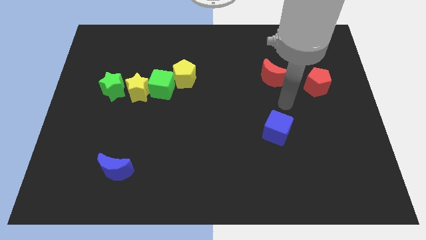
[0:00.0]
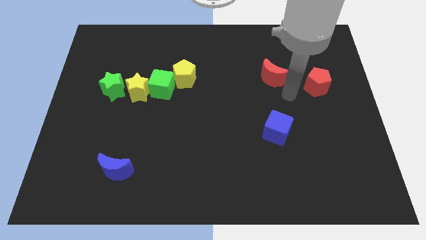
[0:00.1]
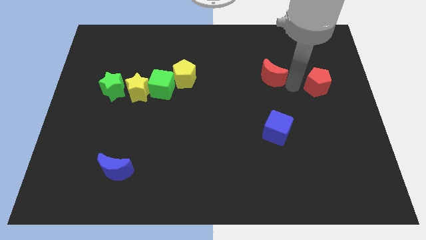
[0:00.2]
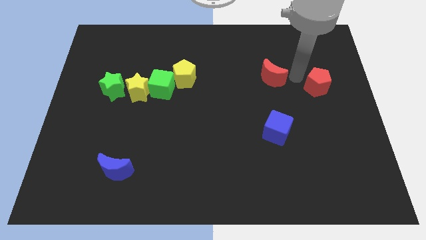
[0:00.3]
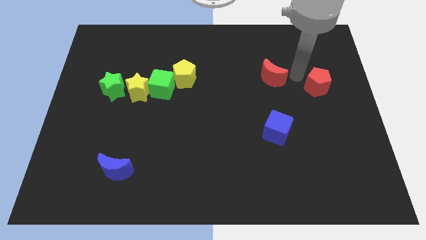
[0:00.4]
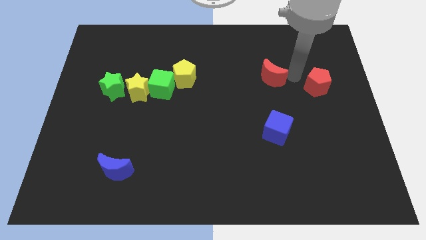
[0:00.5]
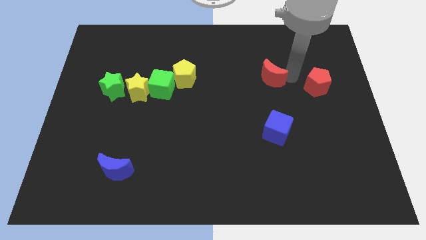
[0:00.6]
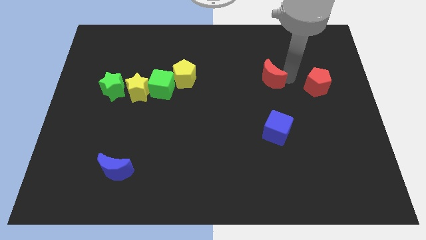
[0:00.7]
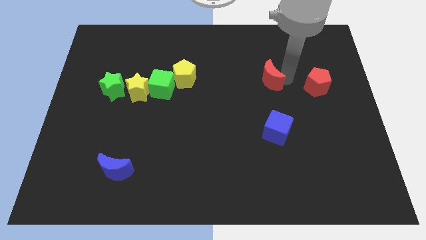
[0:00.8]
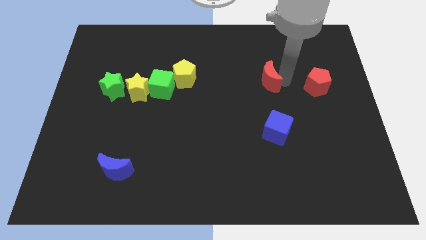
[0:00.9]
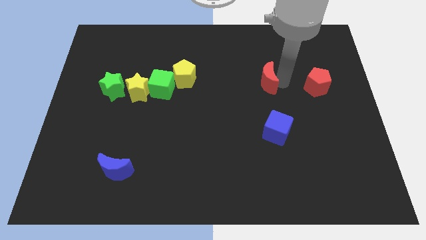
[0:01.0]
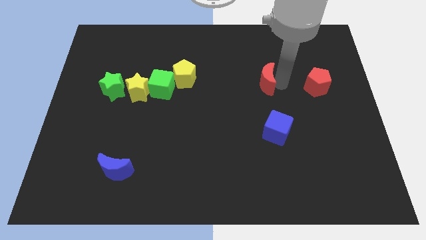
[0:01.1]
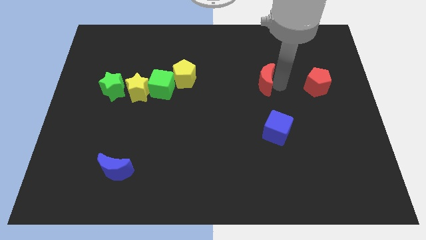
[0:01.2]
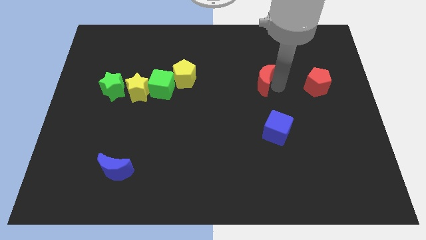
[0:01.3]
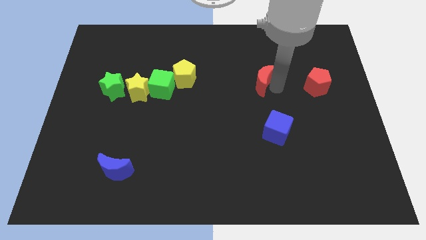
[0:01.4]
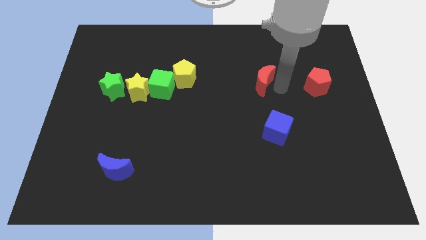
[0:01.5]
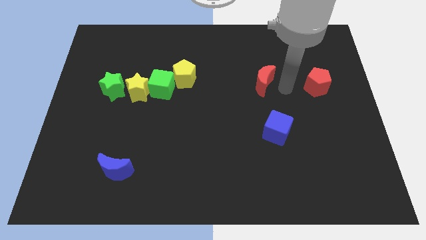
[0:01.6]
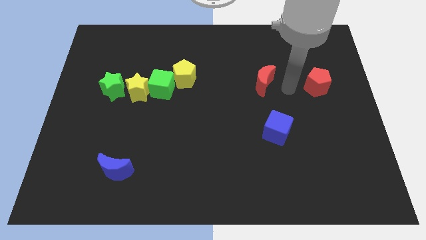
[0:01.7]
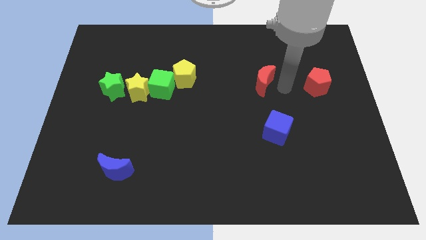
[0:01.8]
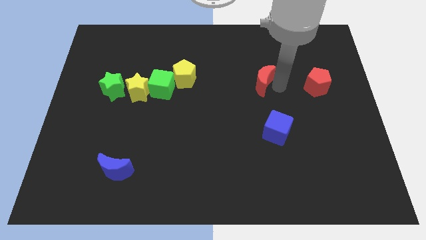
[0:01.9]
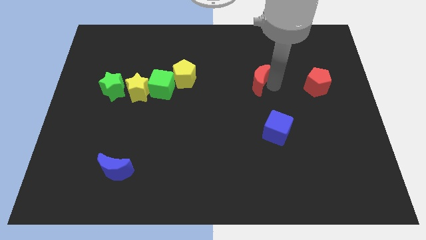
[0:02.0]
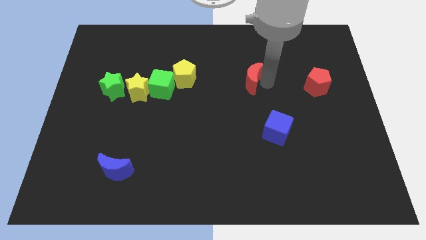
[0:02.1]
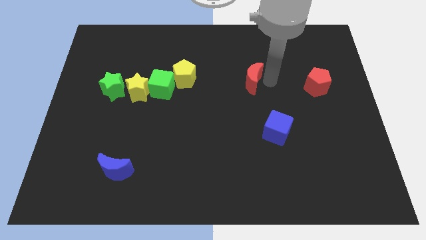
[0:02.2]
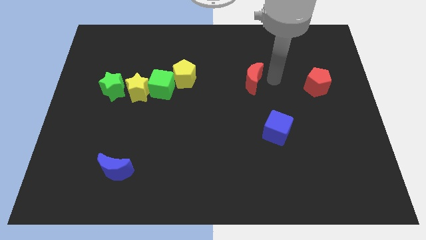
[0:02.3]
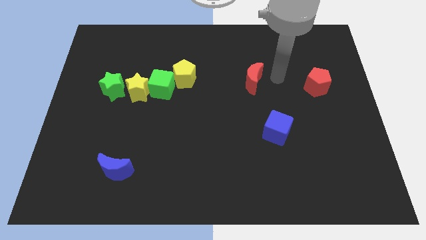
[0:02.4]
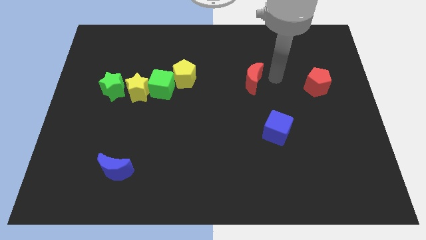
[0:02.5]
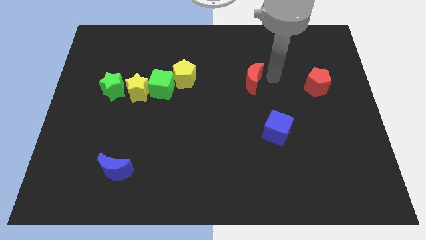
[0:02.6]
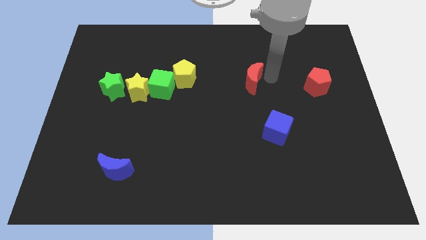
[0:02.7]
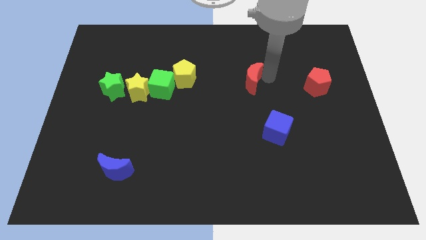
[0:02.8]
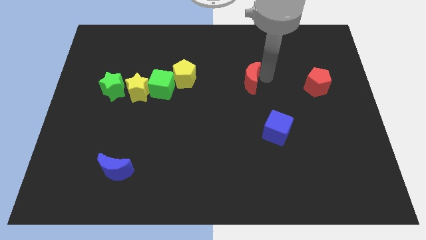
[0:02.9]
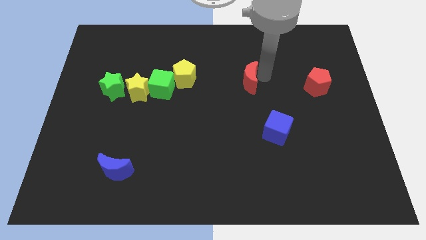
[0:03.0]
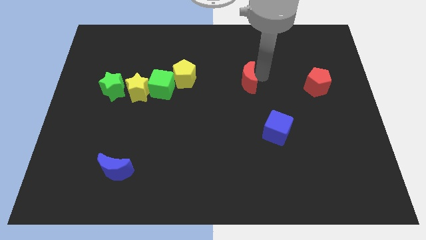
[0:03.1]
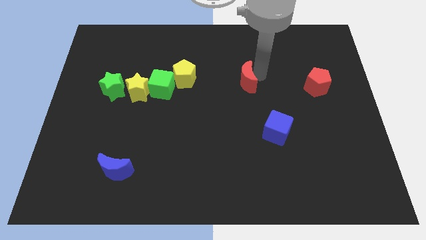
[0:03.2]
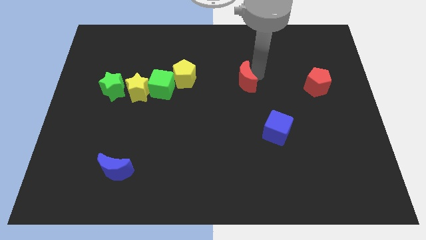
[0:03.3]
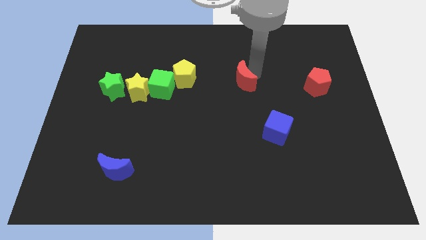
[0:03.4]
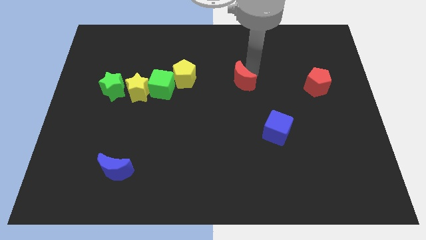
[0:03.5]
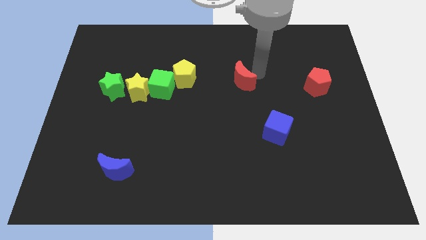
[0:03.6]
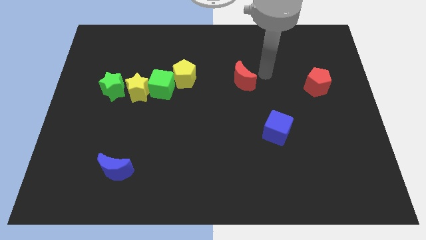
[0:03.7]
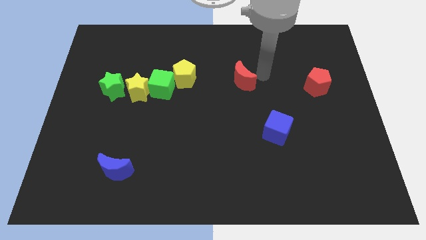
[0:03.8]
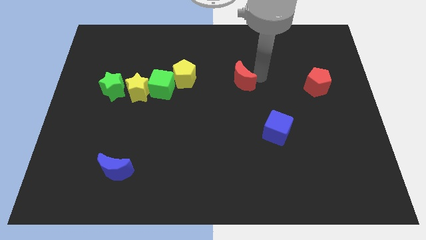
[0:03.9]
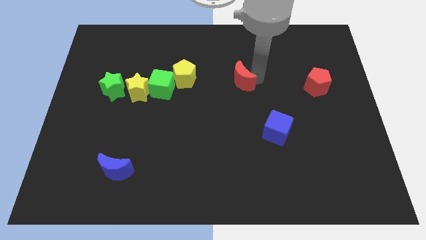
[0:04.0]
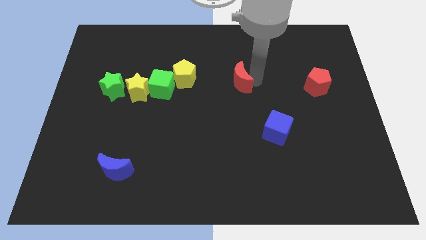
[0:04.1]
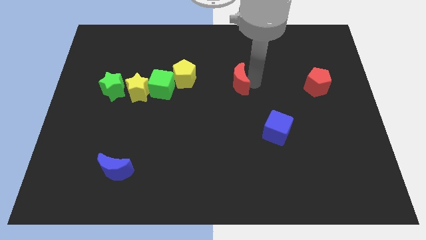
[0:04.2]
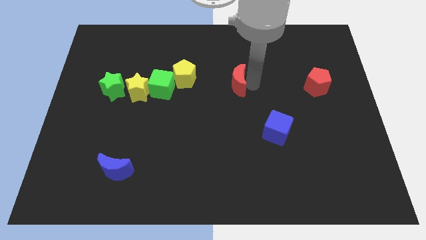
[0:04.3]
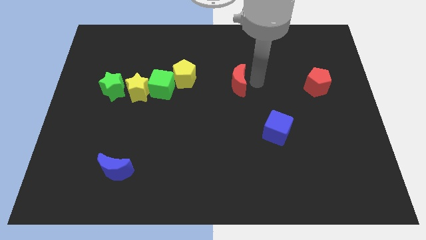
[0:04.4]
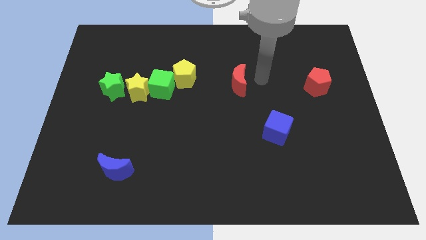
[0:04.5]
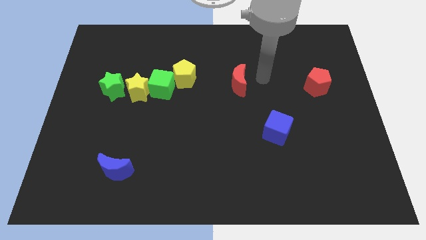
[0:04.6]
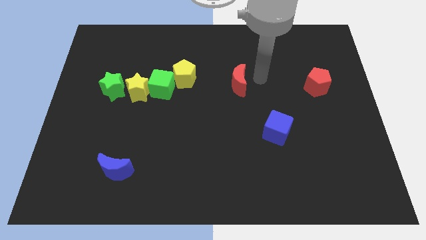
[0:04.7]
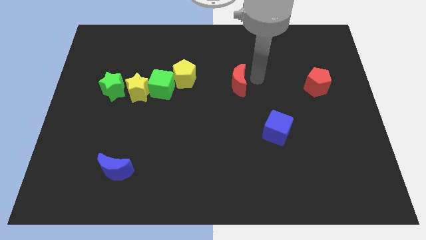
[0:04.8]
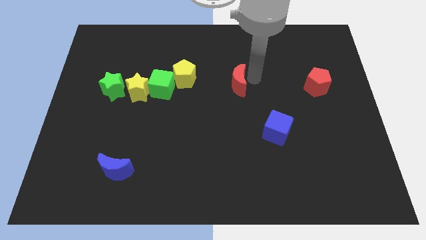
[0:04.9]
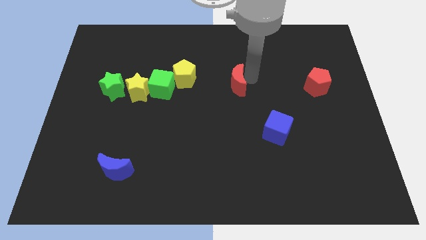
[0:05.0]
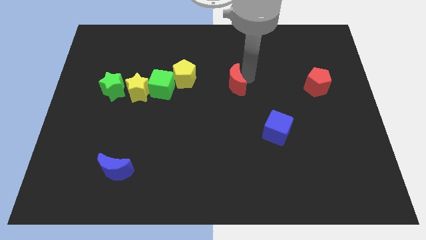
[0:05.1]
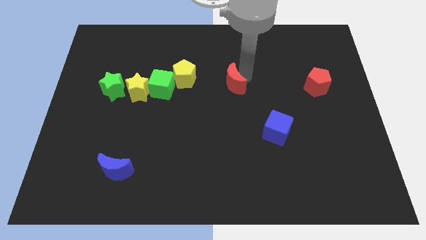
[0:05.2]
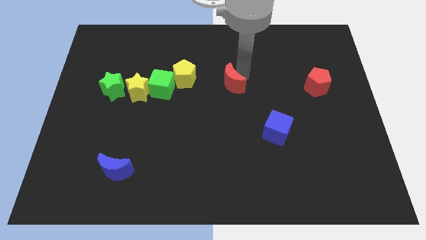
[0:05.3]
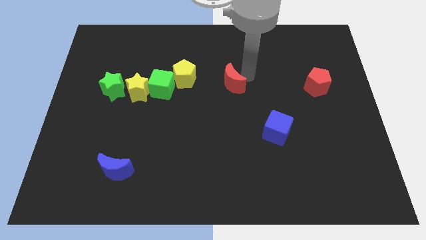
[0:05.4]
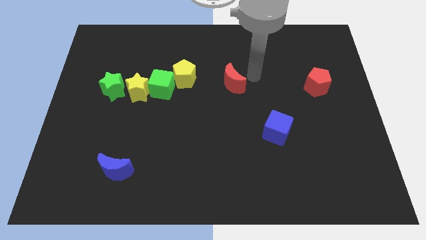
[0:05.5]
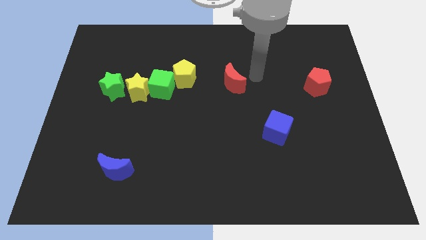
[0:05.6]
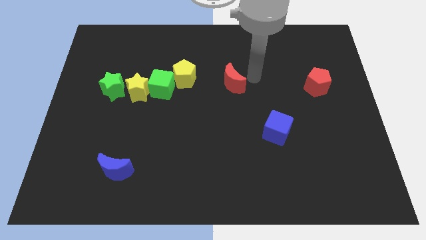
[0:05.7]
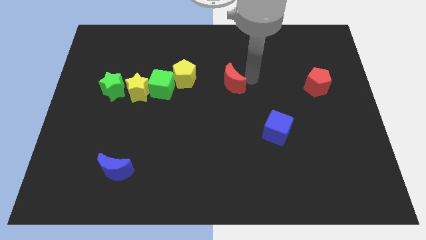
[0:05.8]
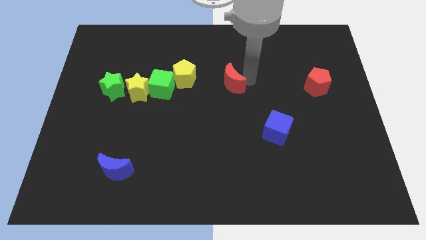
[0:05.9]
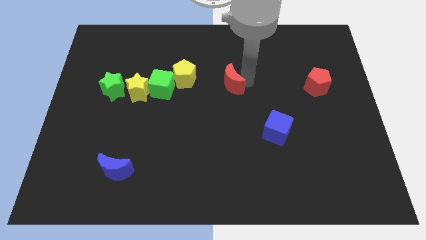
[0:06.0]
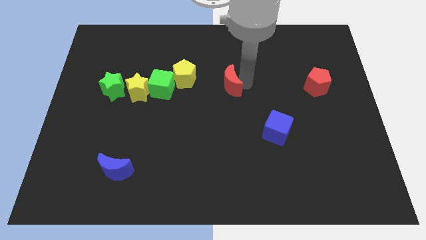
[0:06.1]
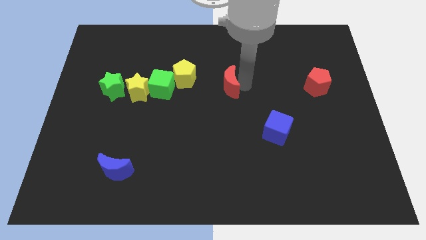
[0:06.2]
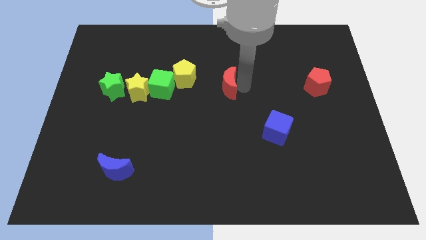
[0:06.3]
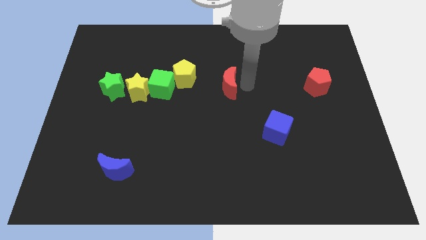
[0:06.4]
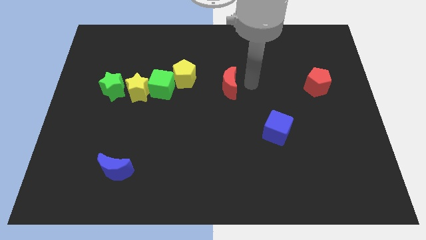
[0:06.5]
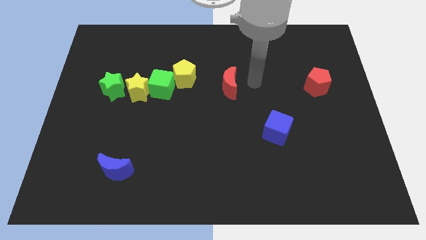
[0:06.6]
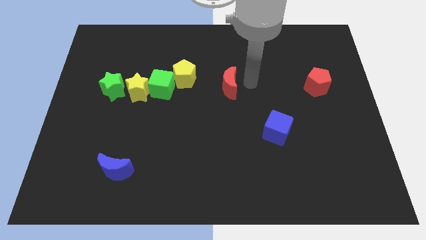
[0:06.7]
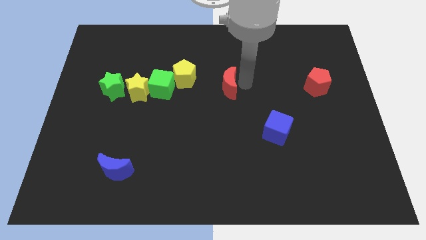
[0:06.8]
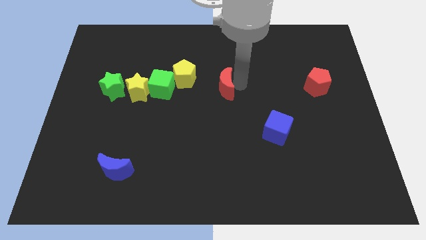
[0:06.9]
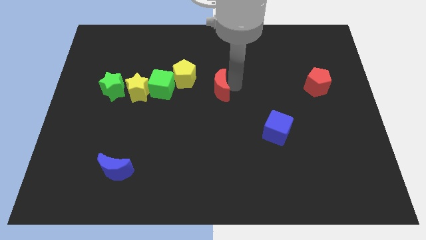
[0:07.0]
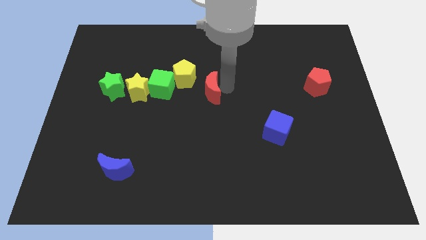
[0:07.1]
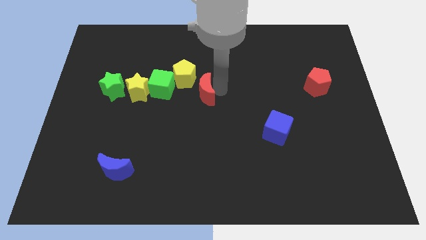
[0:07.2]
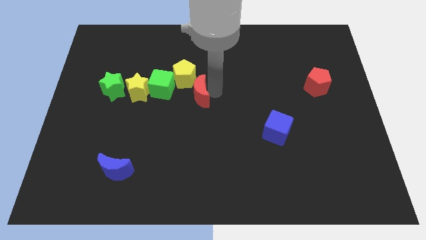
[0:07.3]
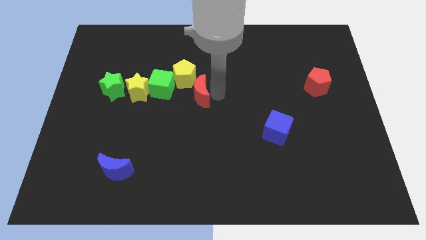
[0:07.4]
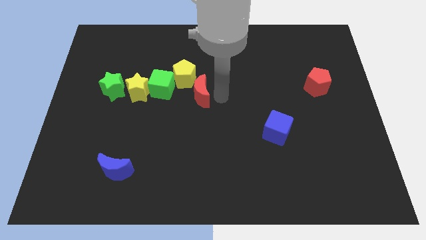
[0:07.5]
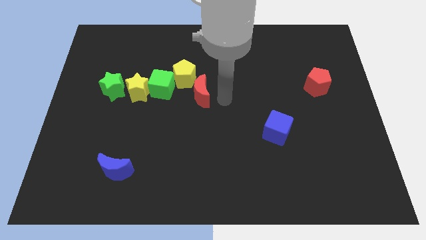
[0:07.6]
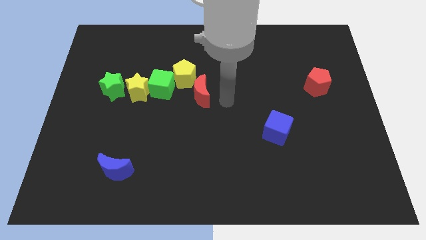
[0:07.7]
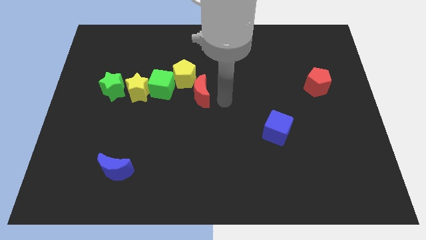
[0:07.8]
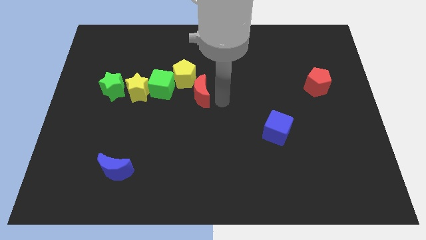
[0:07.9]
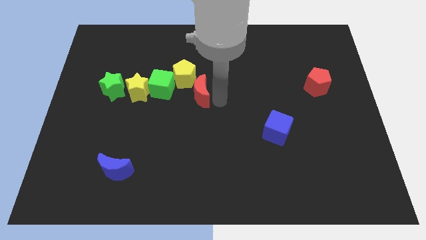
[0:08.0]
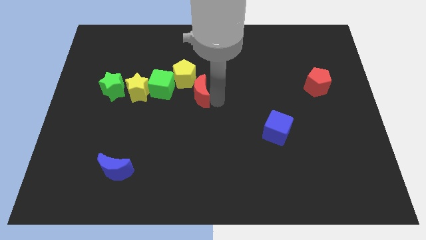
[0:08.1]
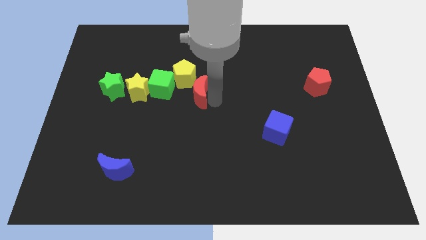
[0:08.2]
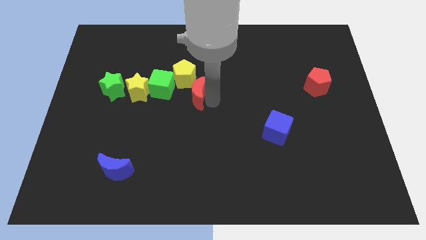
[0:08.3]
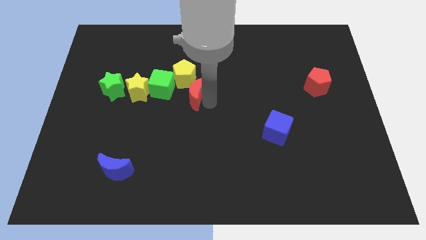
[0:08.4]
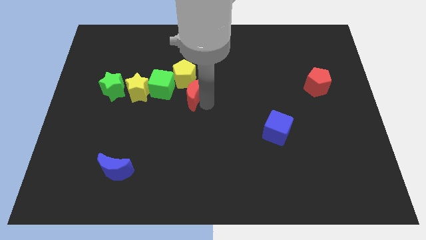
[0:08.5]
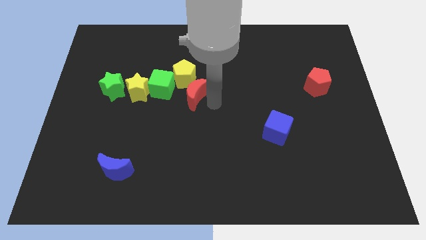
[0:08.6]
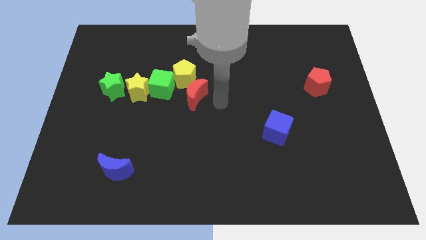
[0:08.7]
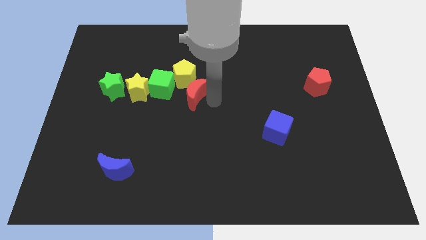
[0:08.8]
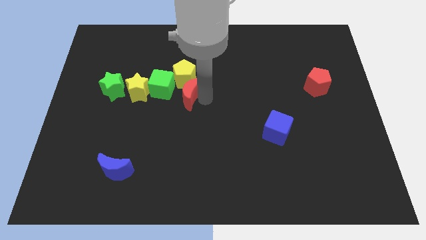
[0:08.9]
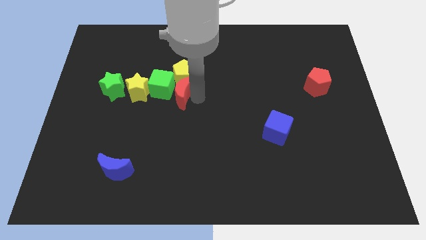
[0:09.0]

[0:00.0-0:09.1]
push the red moon to the green cube
